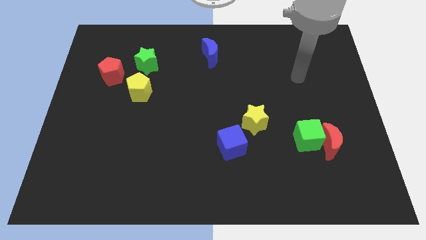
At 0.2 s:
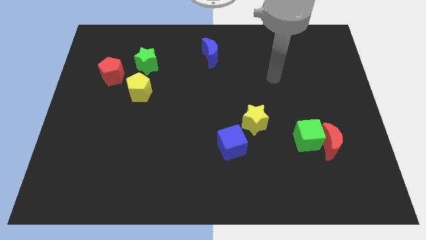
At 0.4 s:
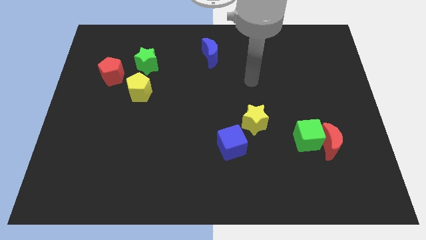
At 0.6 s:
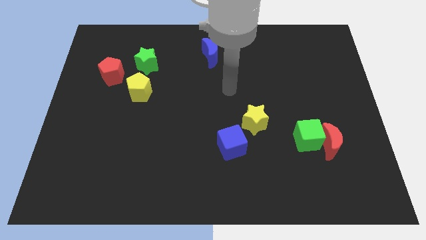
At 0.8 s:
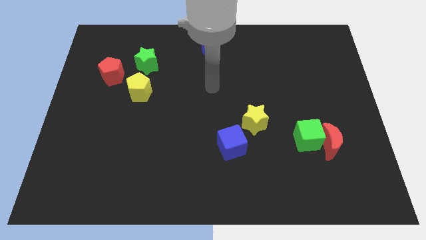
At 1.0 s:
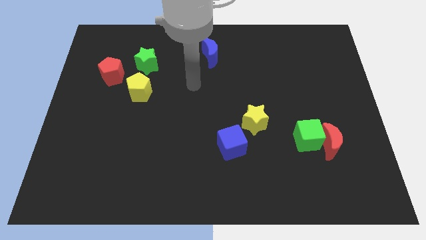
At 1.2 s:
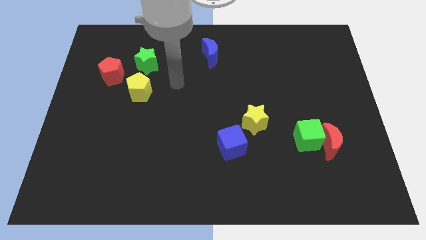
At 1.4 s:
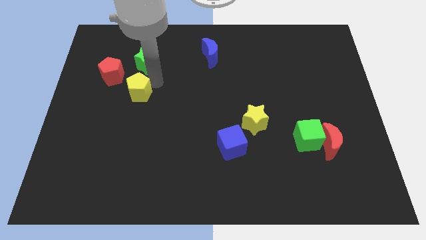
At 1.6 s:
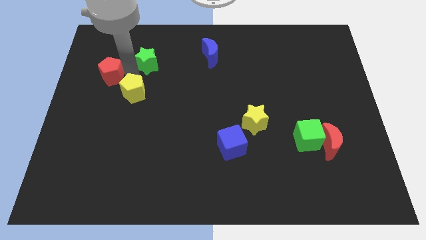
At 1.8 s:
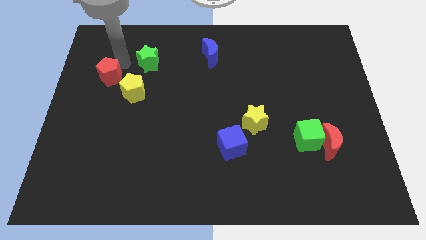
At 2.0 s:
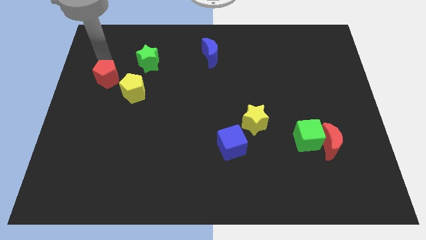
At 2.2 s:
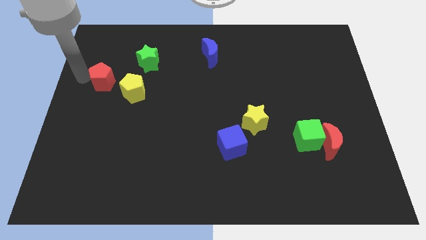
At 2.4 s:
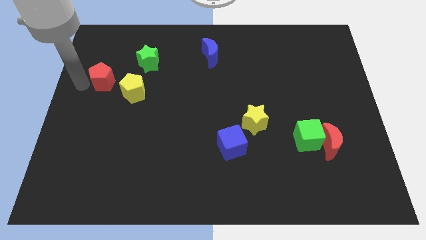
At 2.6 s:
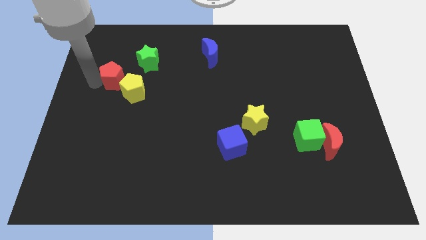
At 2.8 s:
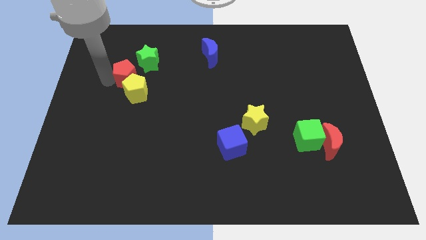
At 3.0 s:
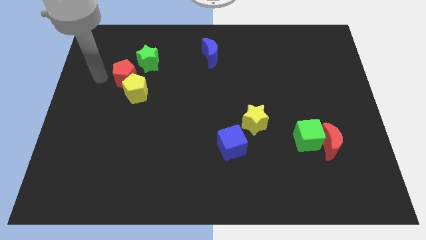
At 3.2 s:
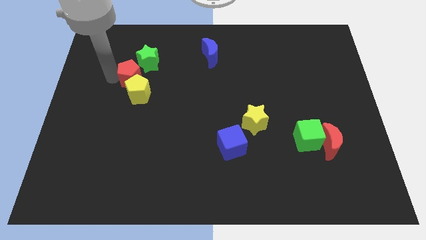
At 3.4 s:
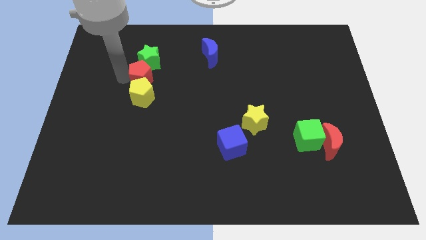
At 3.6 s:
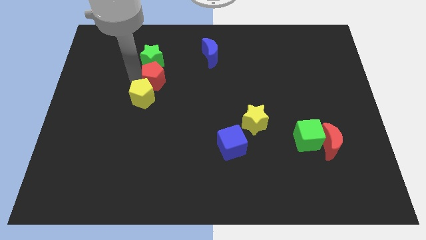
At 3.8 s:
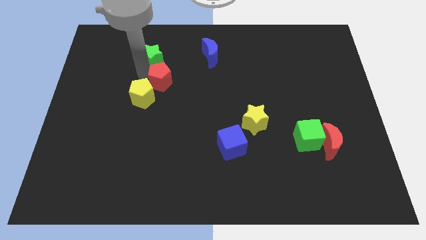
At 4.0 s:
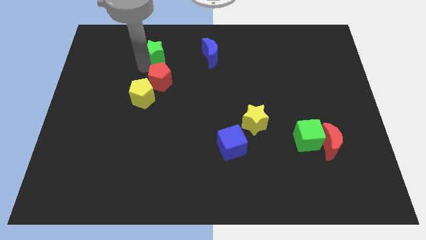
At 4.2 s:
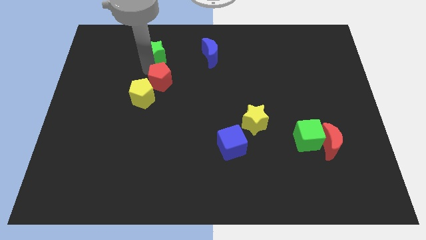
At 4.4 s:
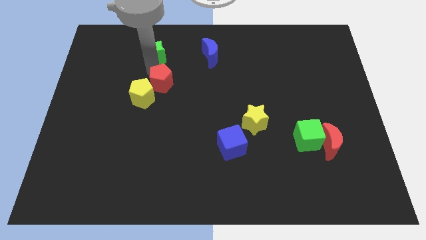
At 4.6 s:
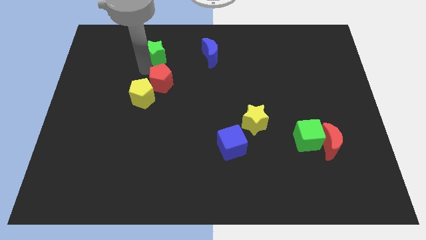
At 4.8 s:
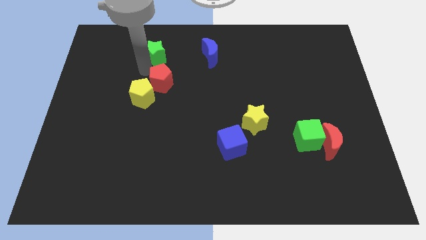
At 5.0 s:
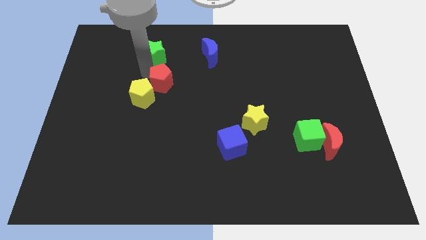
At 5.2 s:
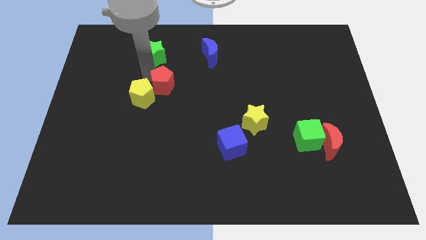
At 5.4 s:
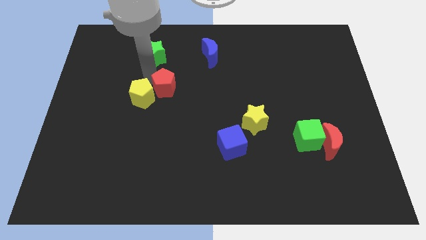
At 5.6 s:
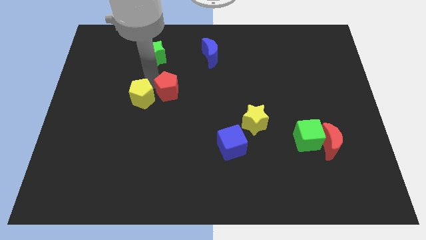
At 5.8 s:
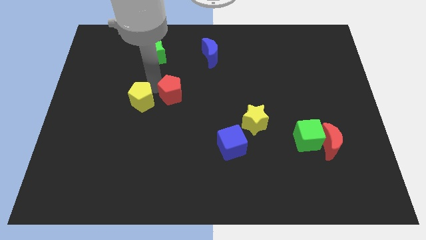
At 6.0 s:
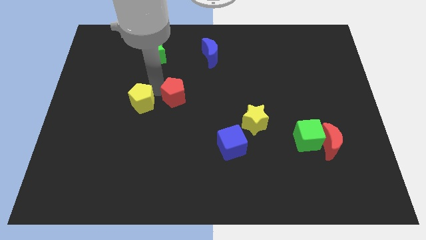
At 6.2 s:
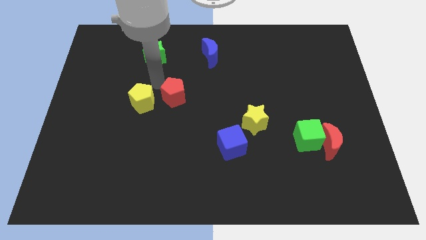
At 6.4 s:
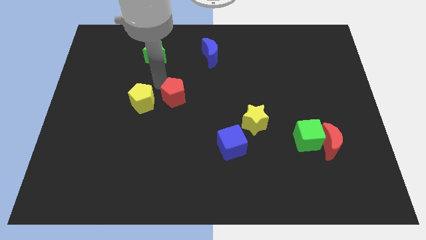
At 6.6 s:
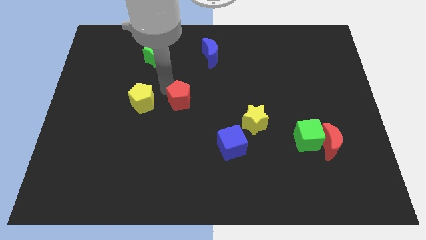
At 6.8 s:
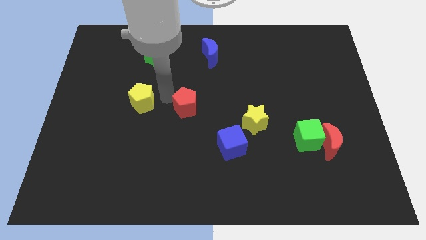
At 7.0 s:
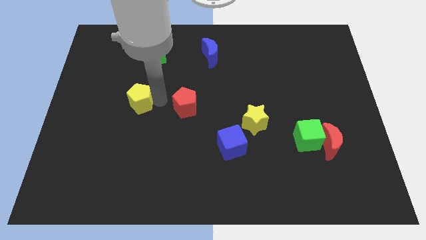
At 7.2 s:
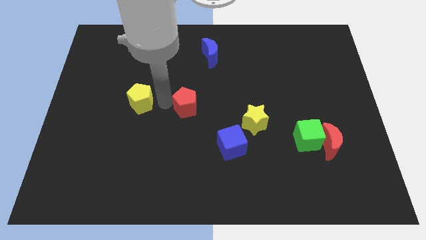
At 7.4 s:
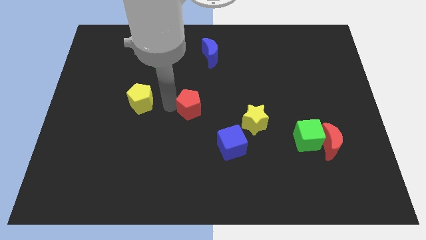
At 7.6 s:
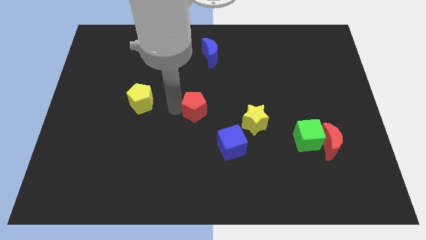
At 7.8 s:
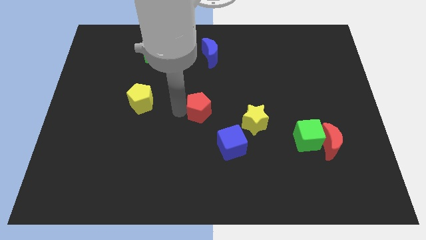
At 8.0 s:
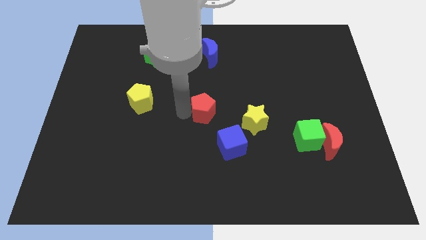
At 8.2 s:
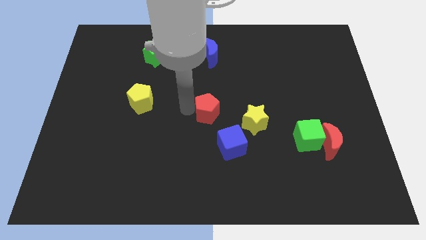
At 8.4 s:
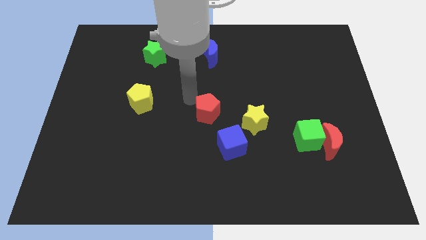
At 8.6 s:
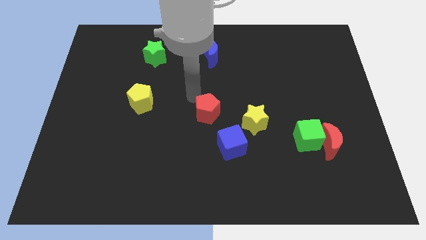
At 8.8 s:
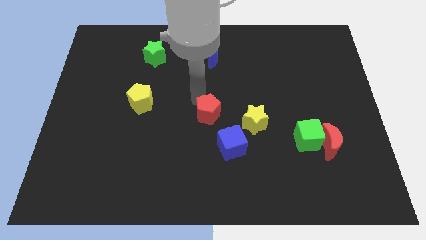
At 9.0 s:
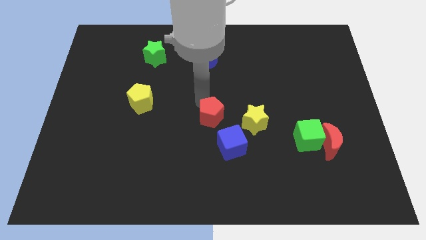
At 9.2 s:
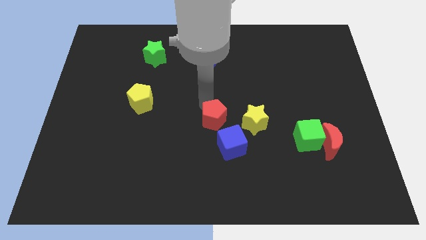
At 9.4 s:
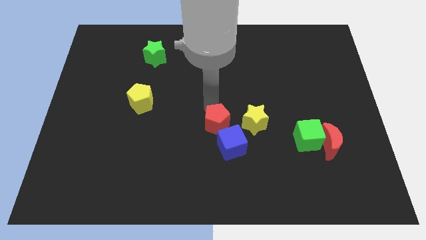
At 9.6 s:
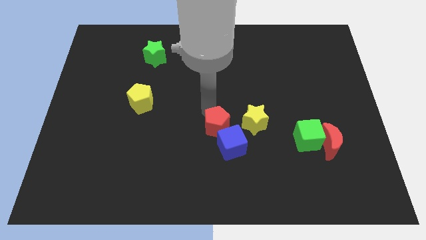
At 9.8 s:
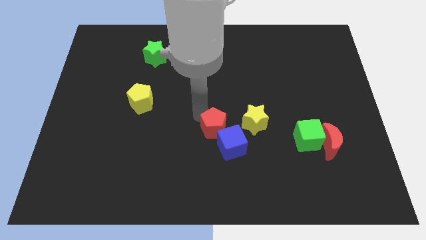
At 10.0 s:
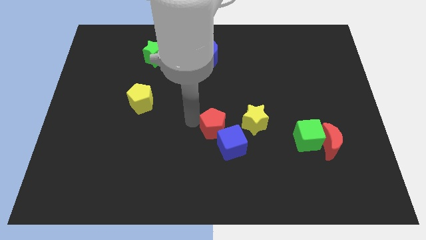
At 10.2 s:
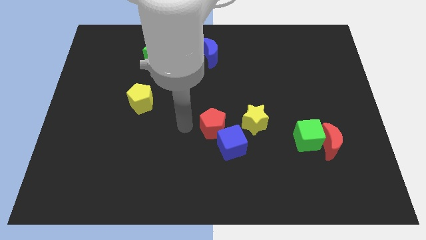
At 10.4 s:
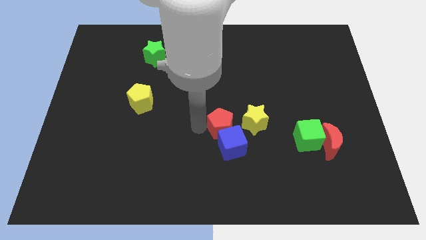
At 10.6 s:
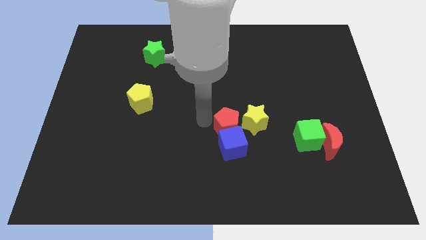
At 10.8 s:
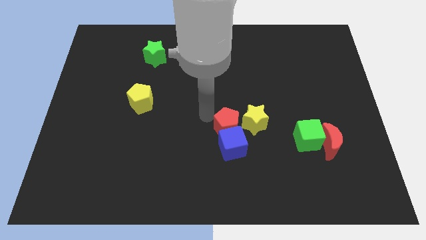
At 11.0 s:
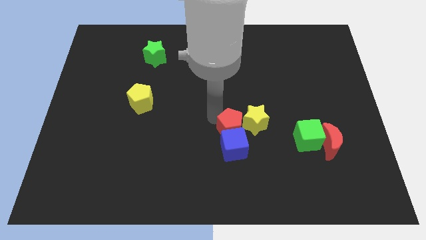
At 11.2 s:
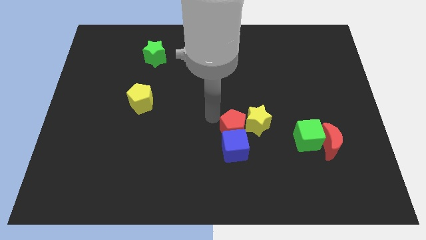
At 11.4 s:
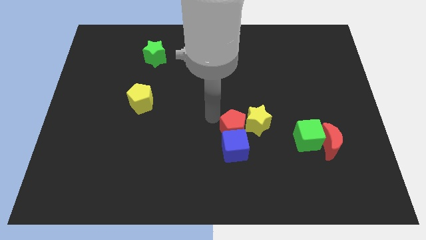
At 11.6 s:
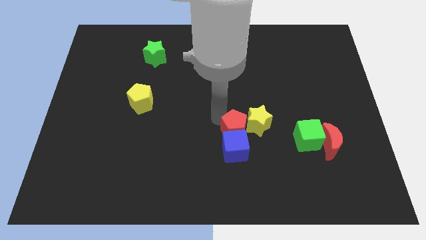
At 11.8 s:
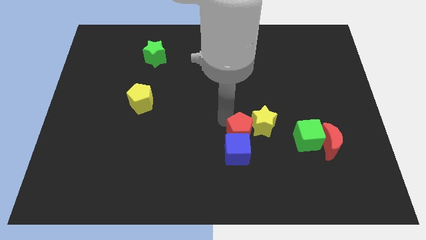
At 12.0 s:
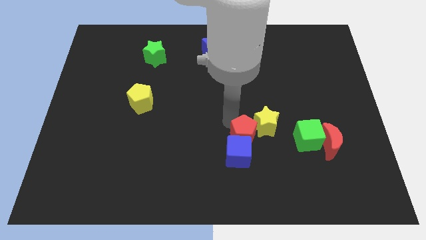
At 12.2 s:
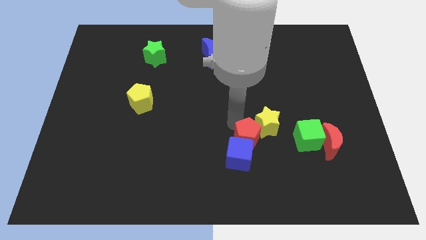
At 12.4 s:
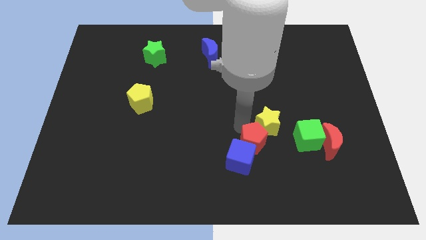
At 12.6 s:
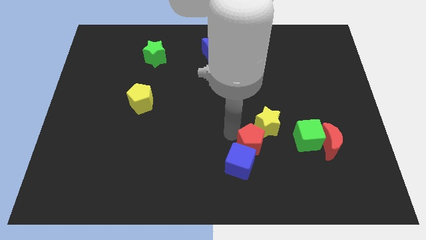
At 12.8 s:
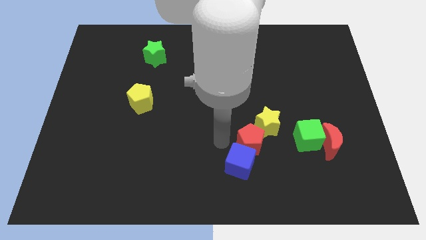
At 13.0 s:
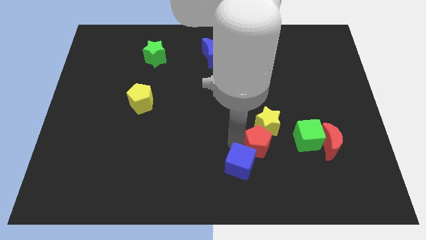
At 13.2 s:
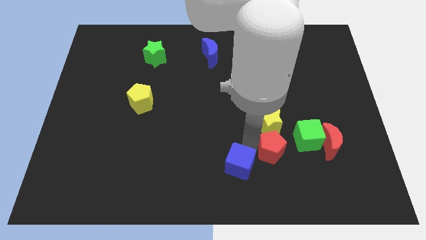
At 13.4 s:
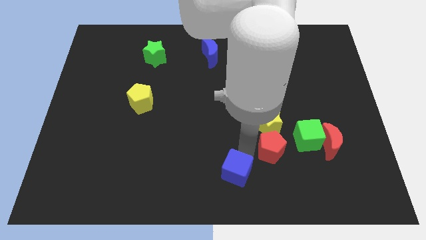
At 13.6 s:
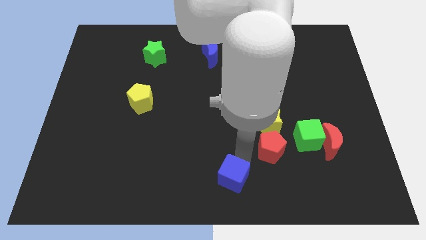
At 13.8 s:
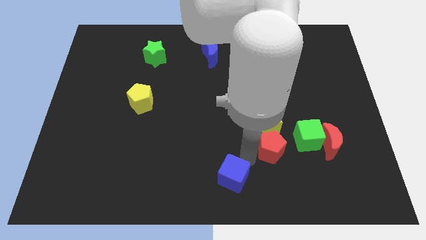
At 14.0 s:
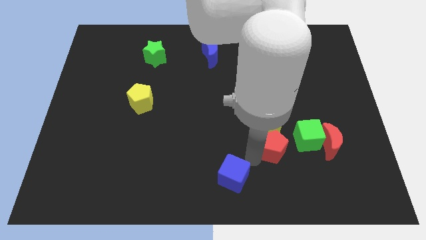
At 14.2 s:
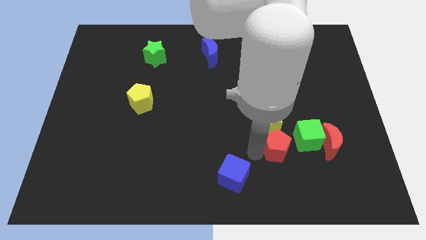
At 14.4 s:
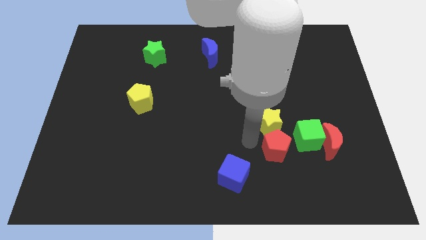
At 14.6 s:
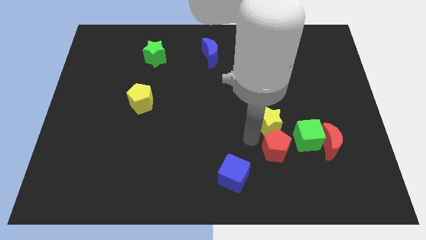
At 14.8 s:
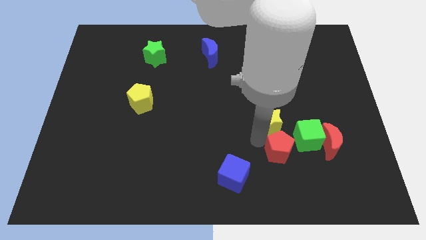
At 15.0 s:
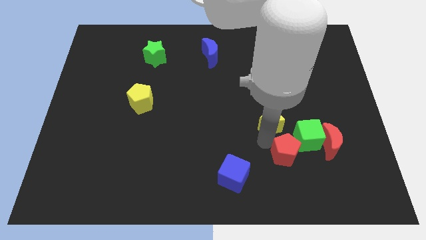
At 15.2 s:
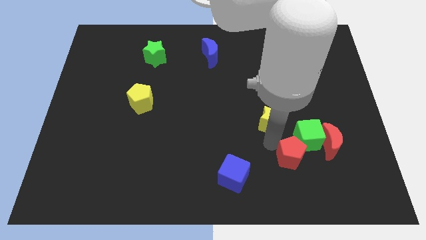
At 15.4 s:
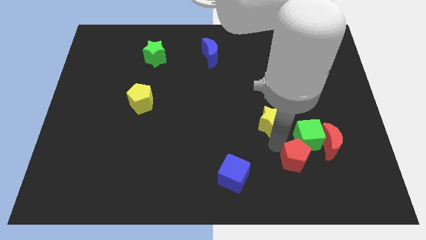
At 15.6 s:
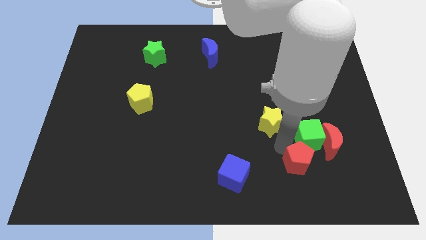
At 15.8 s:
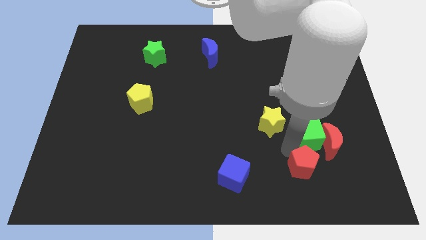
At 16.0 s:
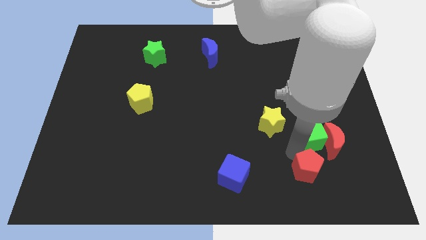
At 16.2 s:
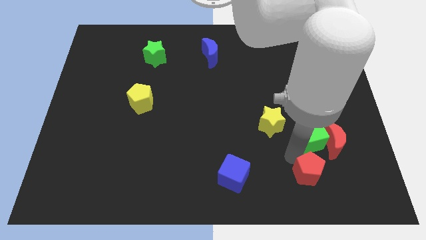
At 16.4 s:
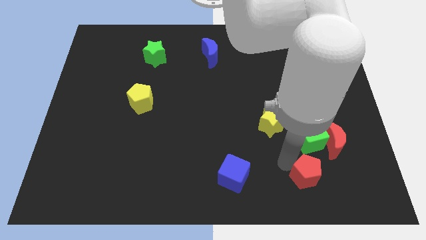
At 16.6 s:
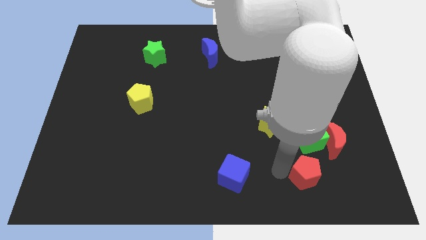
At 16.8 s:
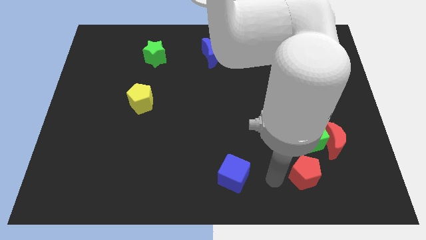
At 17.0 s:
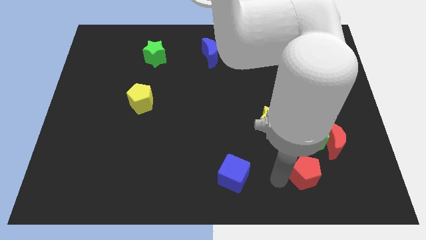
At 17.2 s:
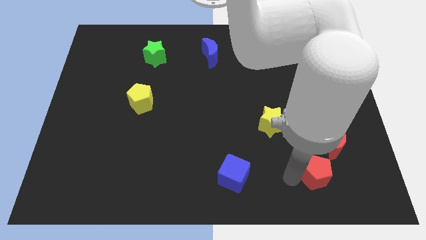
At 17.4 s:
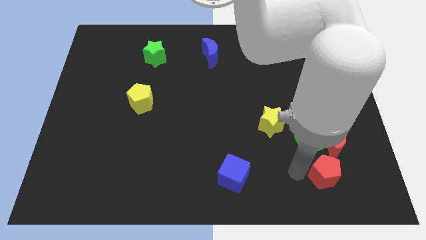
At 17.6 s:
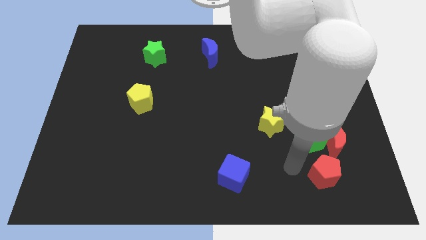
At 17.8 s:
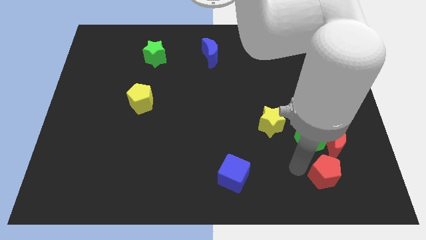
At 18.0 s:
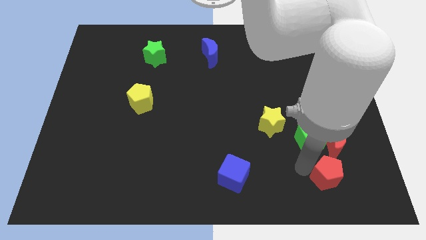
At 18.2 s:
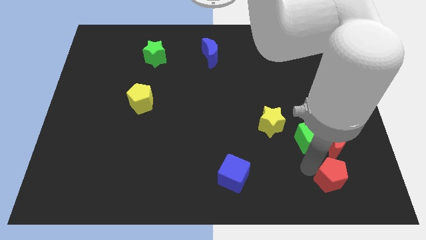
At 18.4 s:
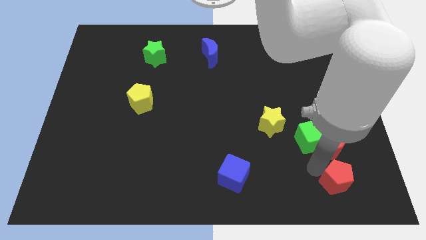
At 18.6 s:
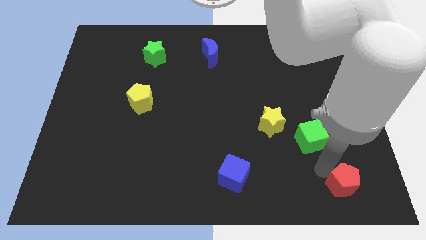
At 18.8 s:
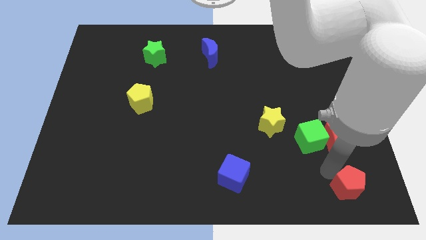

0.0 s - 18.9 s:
put the red pentagon to the bottom right corner
